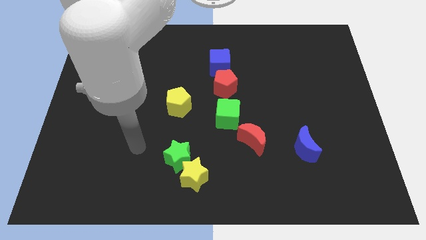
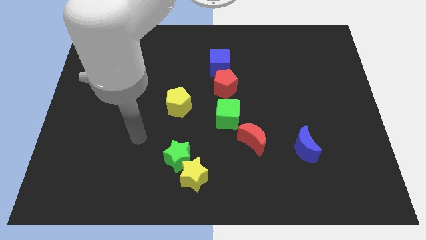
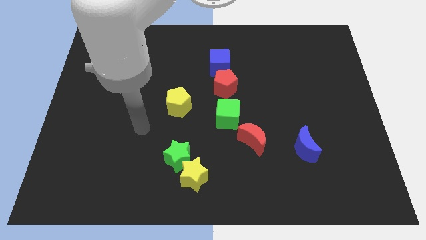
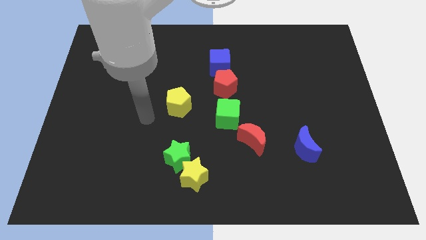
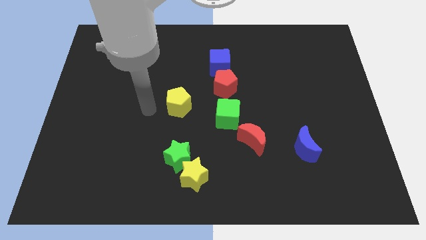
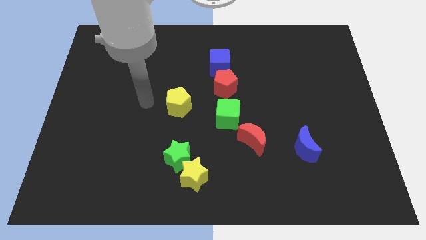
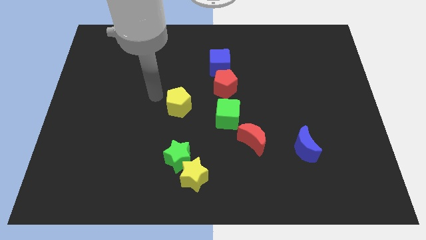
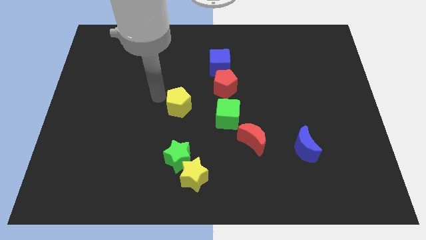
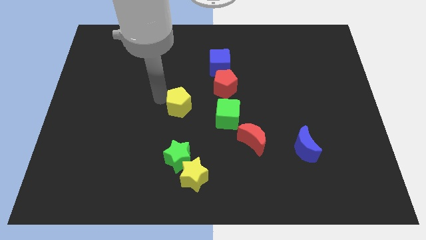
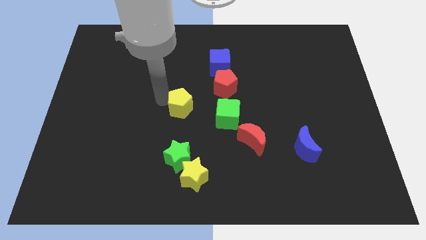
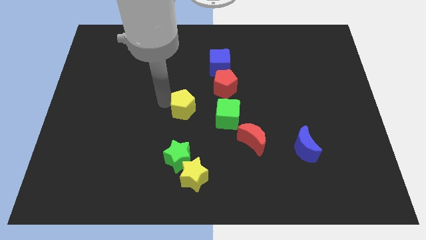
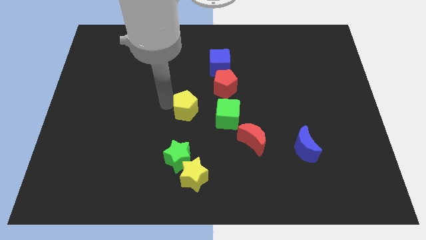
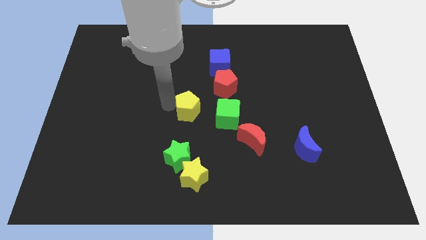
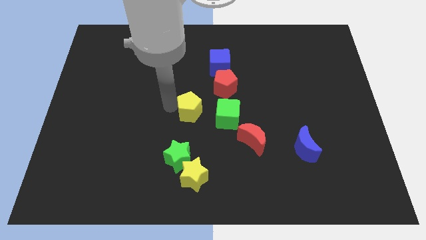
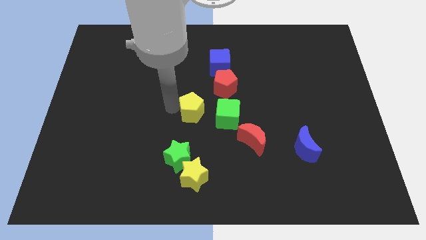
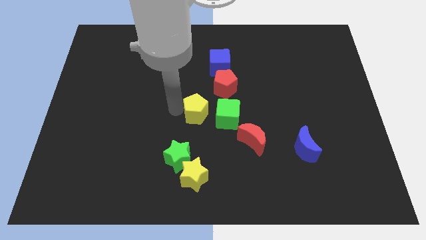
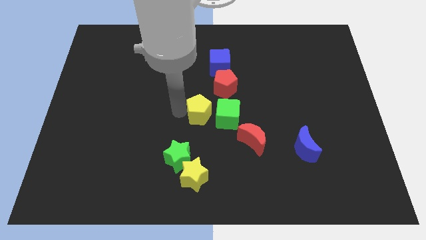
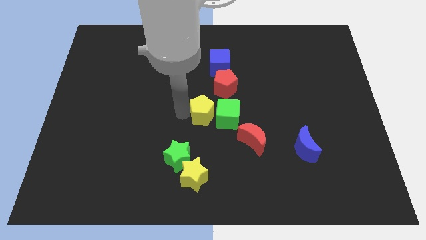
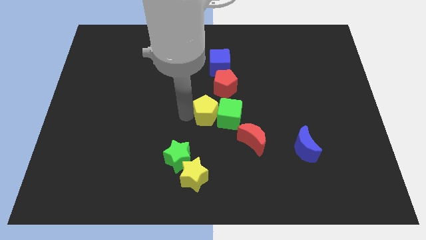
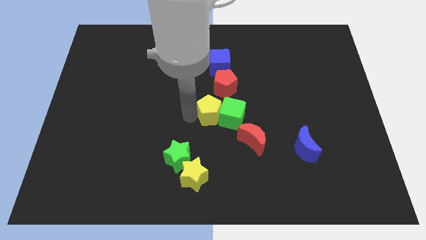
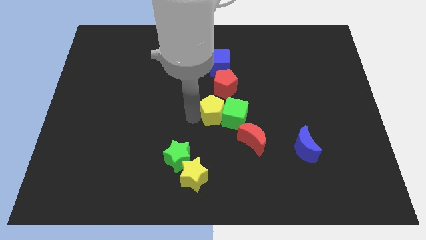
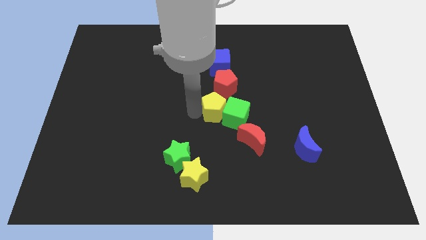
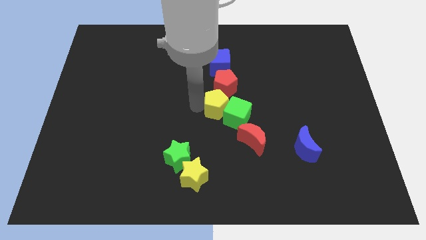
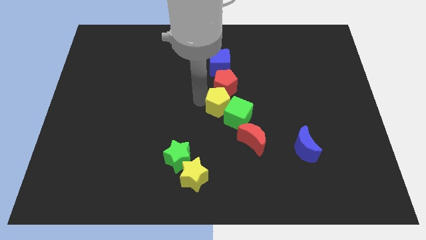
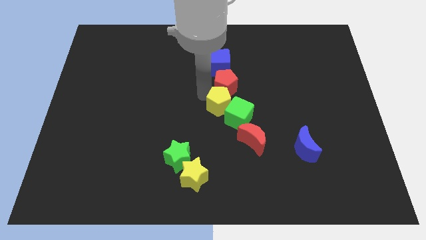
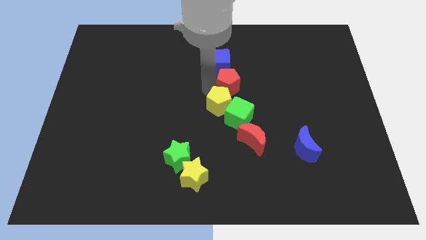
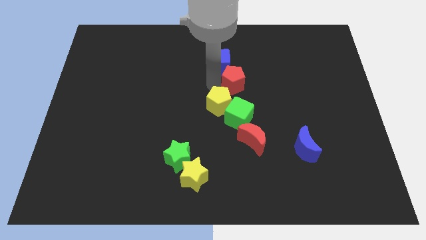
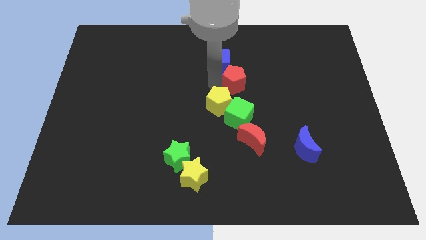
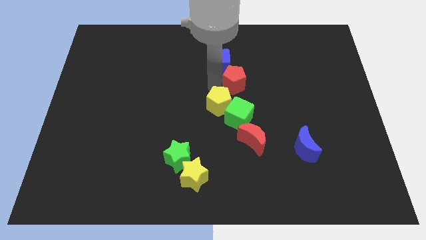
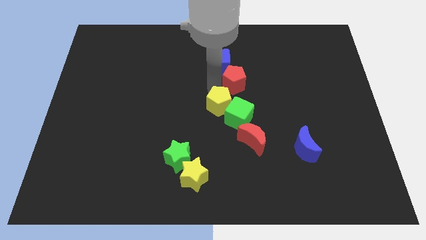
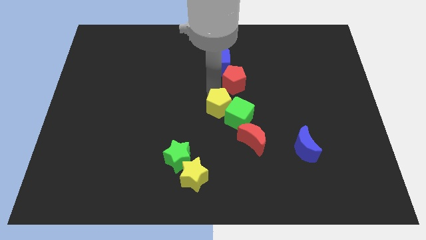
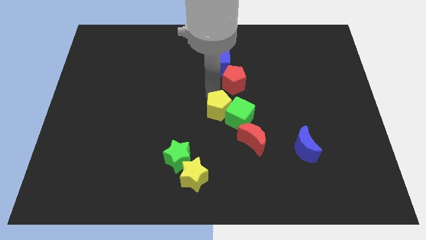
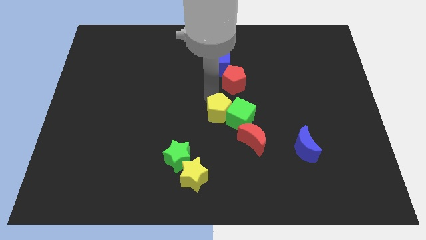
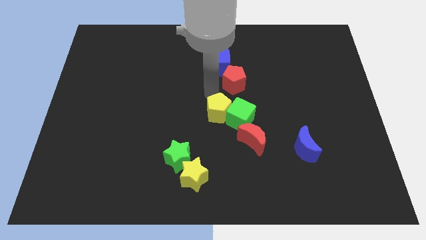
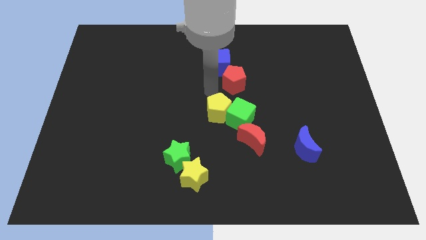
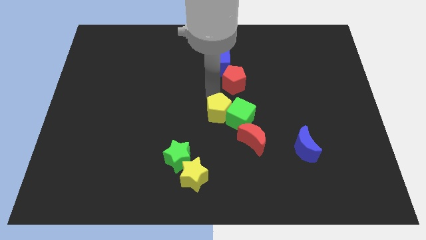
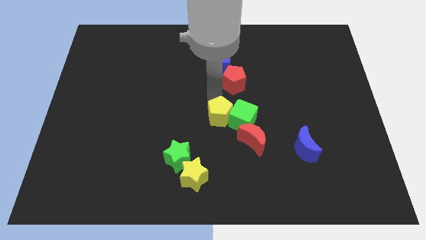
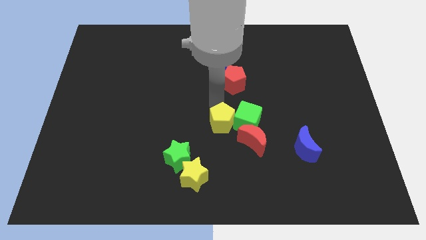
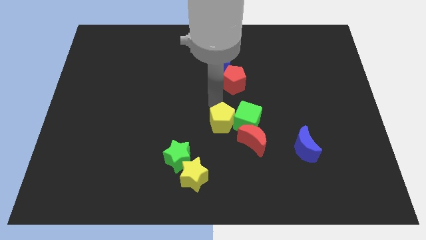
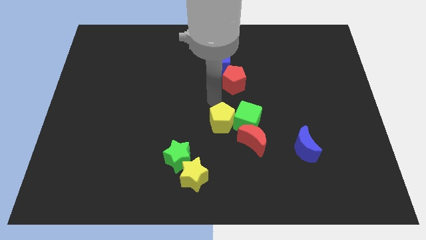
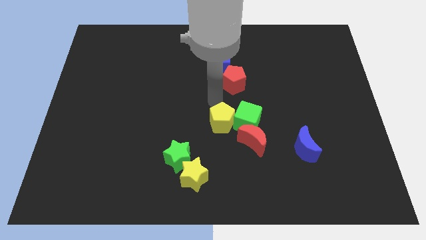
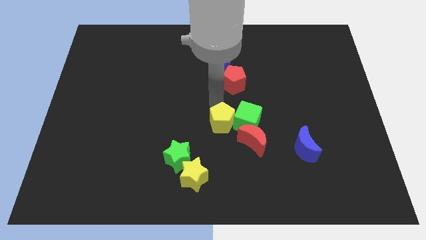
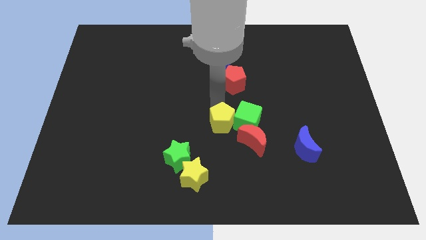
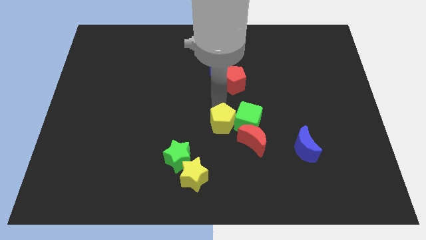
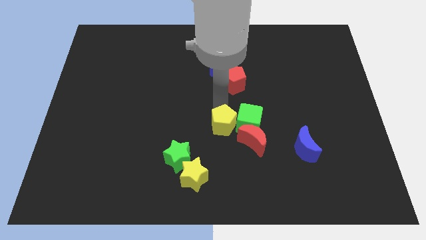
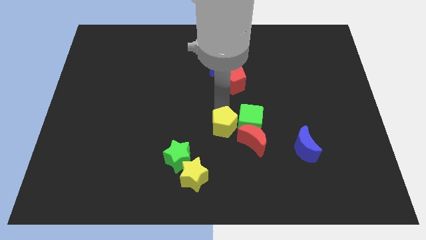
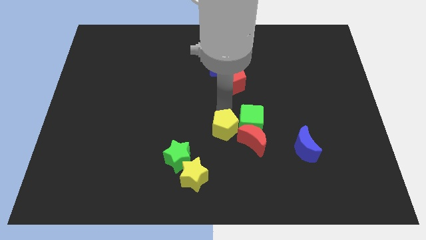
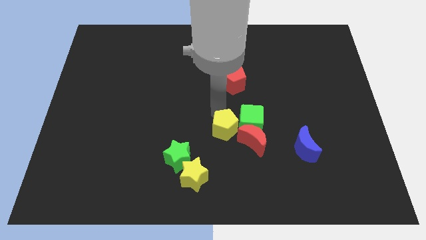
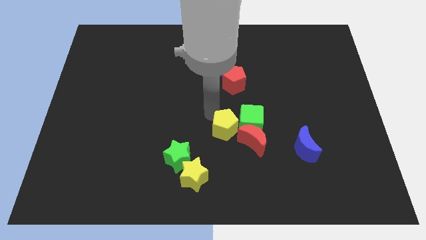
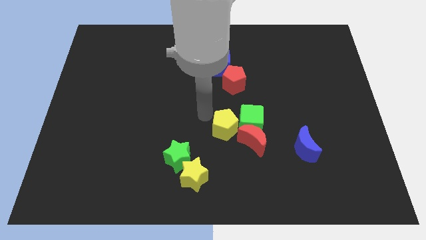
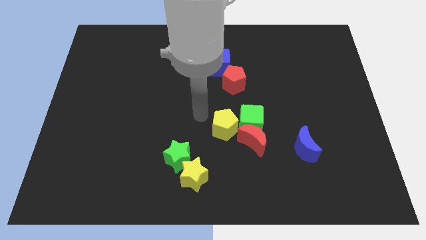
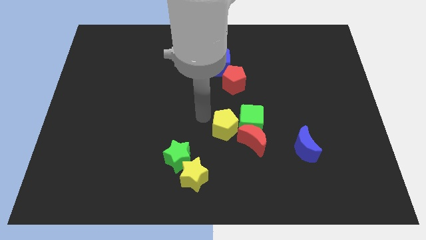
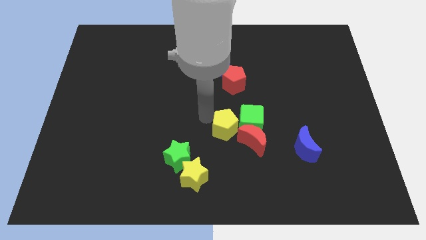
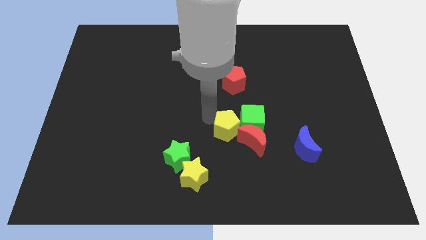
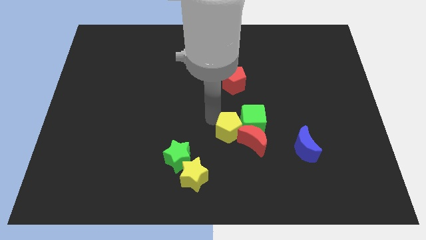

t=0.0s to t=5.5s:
put the yellow pentagon towards the red moon

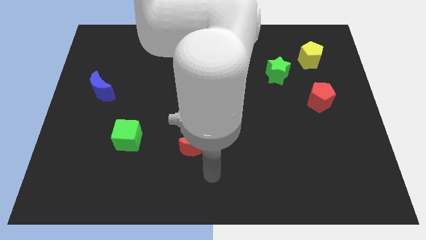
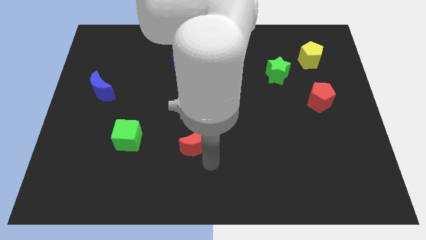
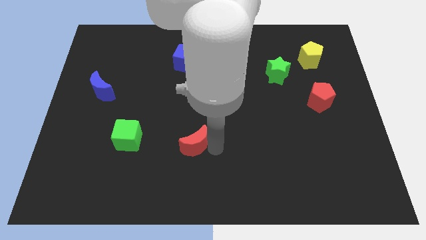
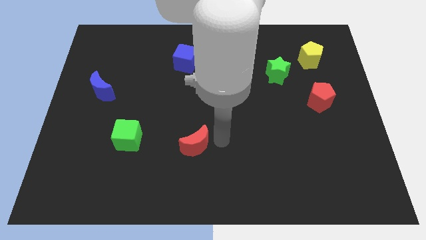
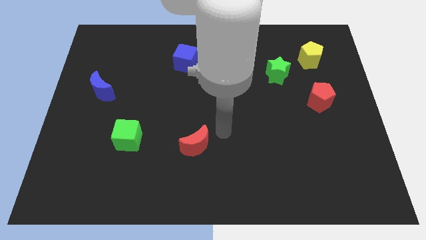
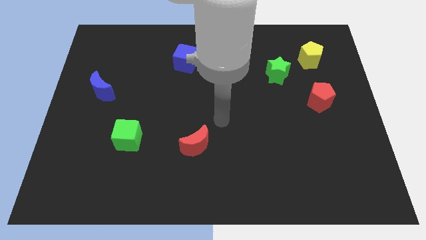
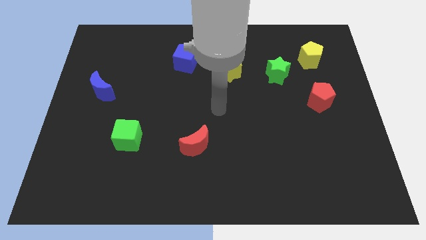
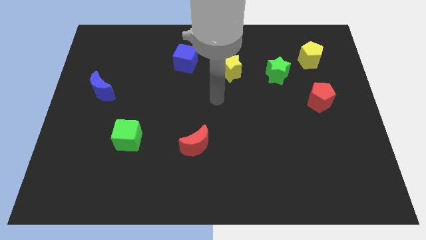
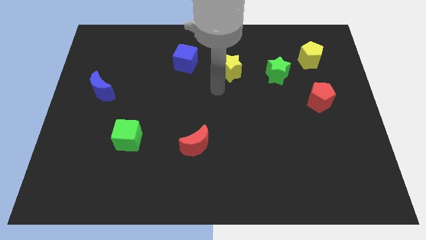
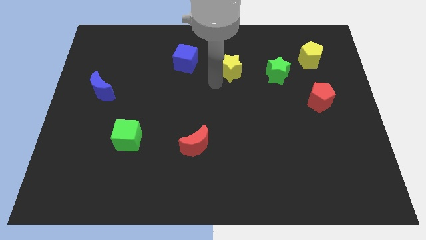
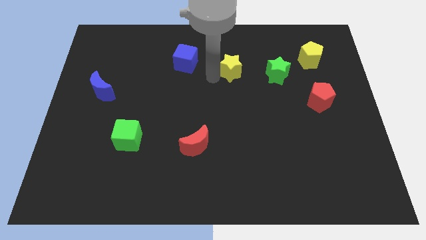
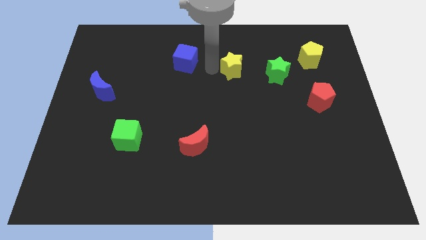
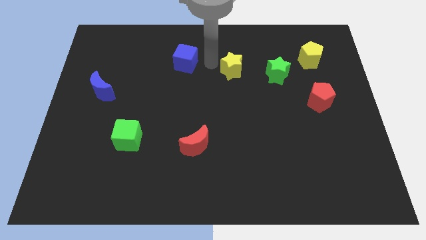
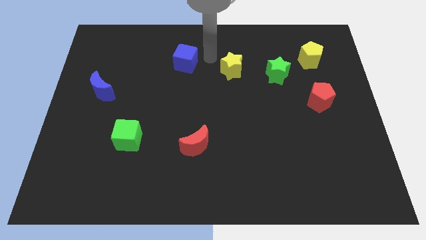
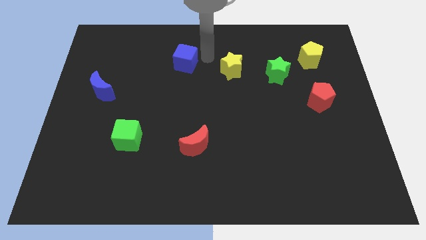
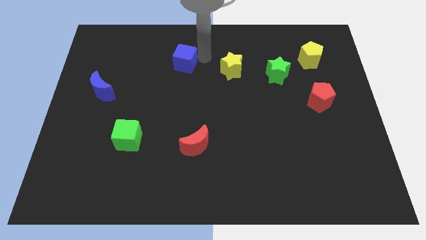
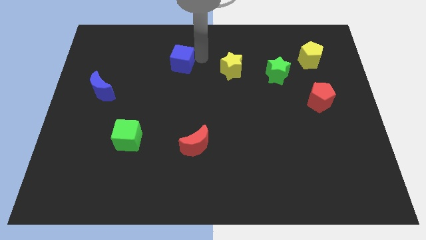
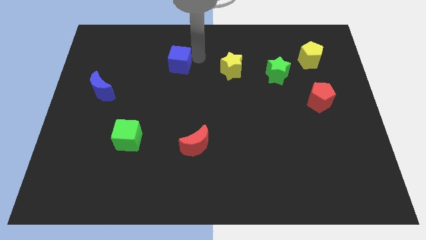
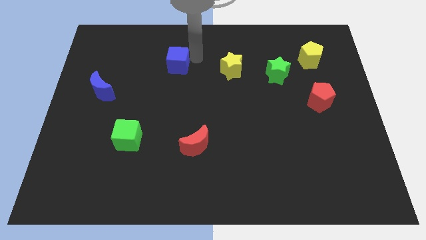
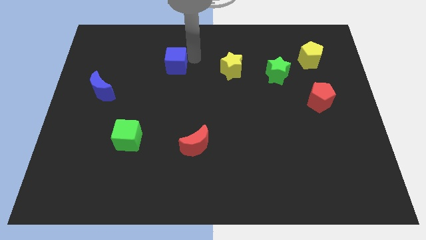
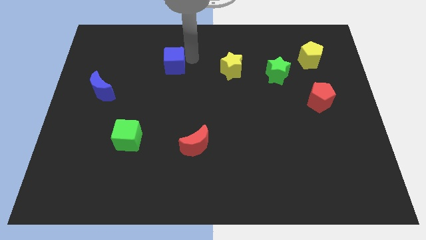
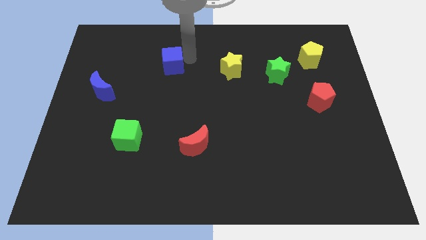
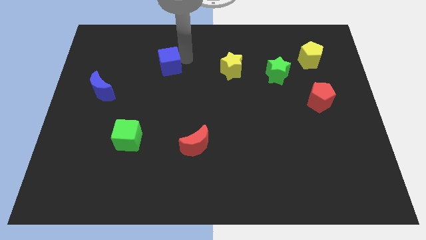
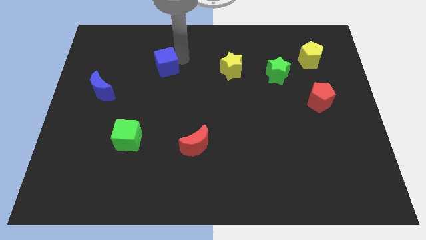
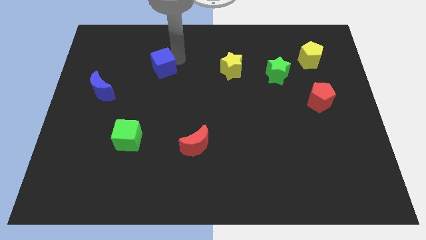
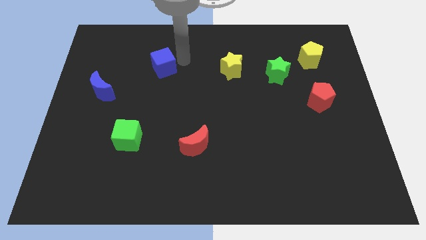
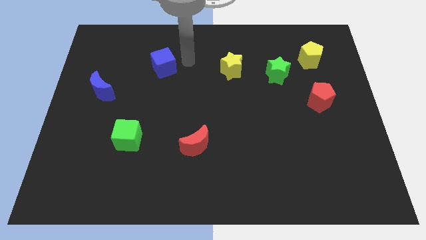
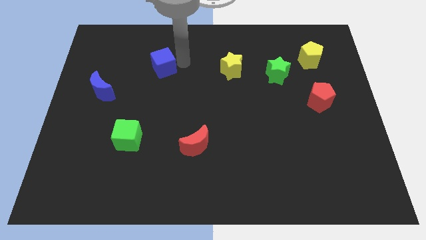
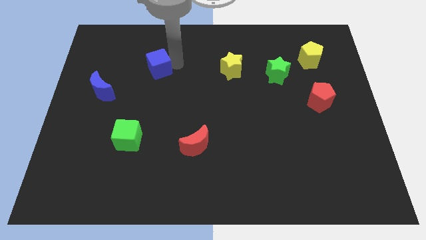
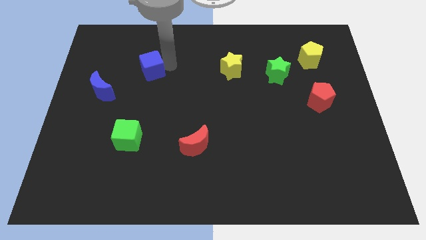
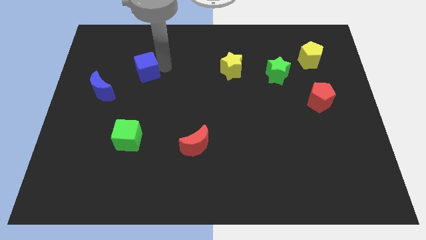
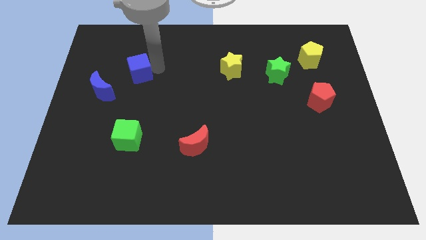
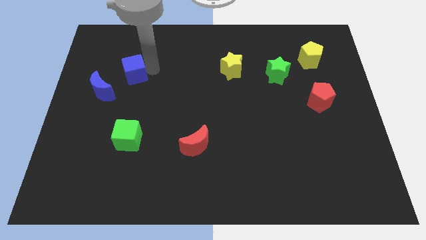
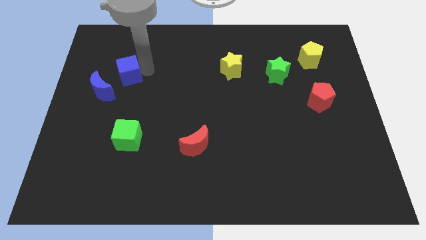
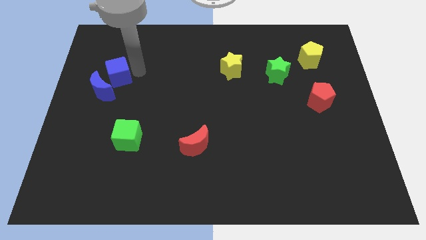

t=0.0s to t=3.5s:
put the blue cube towards the blue moon
